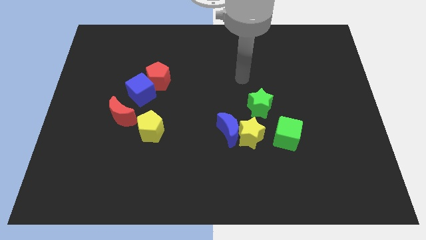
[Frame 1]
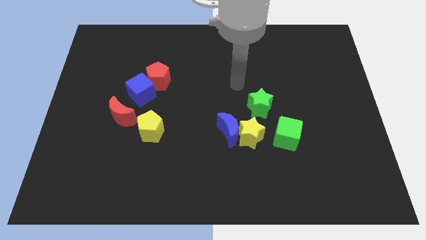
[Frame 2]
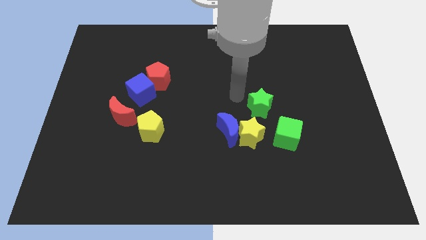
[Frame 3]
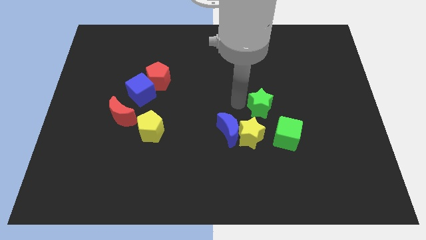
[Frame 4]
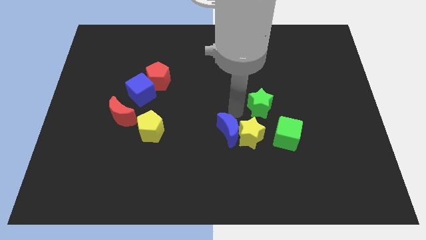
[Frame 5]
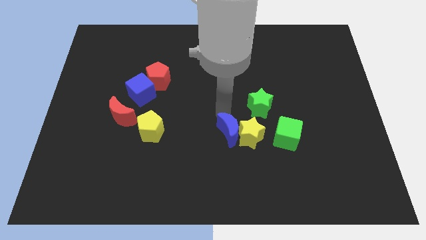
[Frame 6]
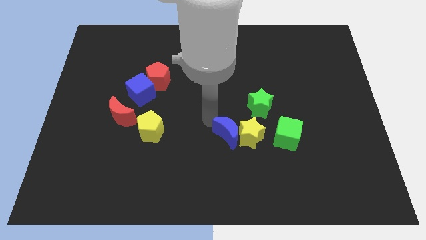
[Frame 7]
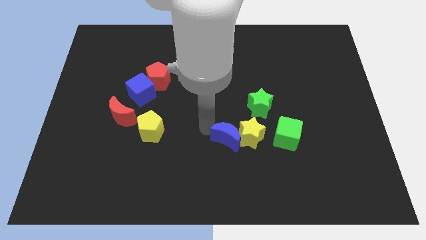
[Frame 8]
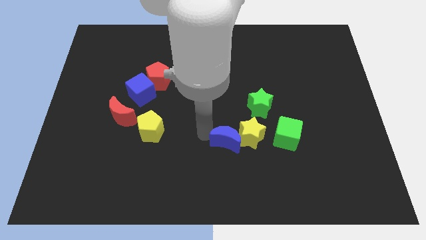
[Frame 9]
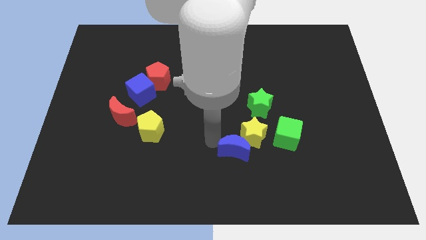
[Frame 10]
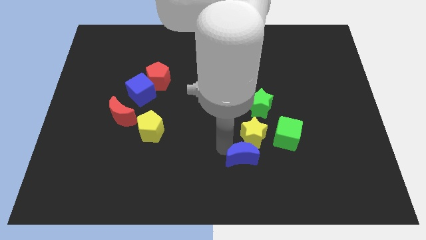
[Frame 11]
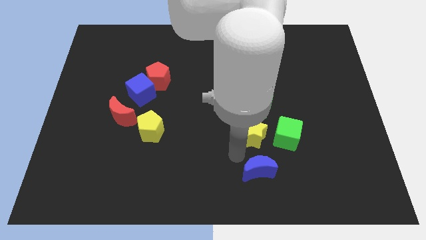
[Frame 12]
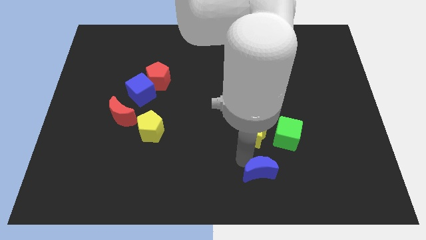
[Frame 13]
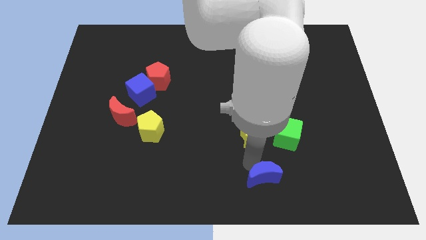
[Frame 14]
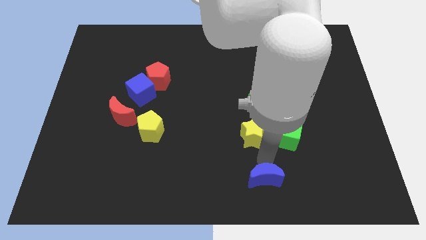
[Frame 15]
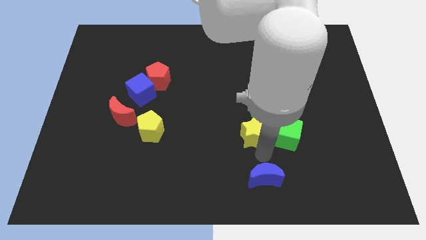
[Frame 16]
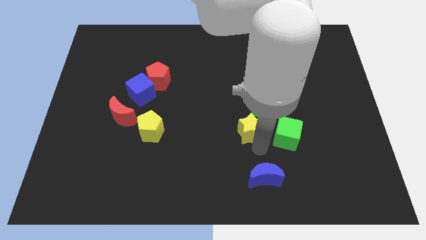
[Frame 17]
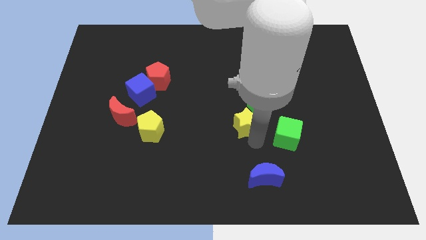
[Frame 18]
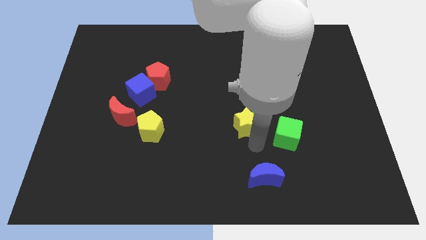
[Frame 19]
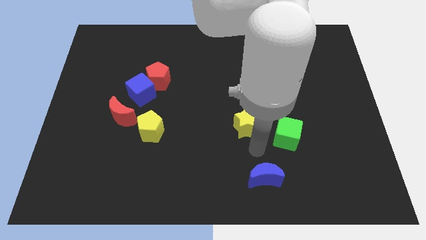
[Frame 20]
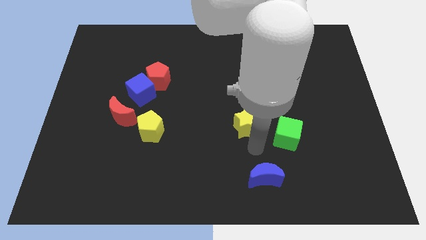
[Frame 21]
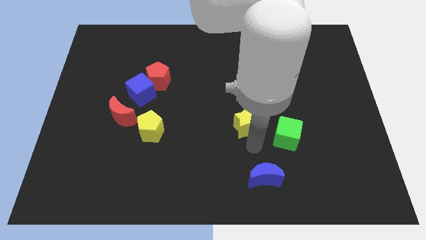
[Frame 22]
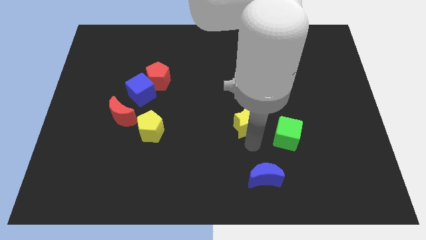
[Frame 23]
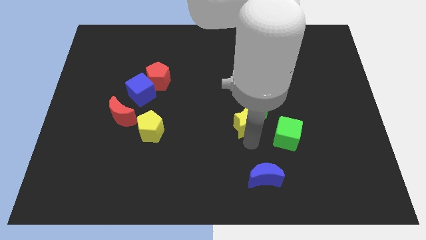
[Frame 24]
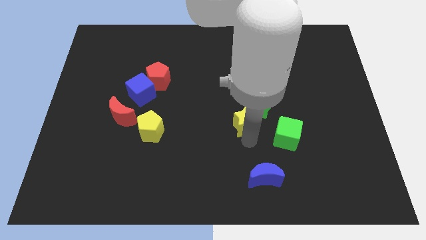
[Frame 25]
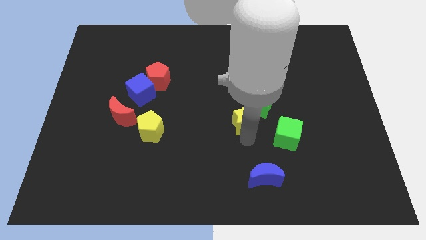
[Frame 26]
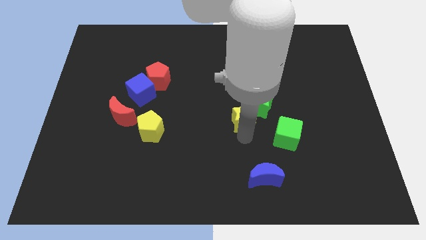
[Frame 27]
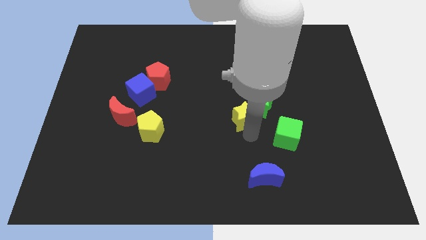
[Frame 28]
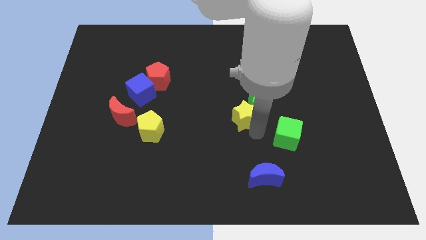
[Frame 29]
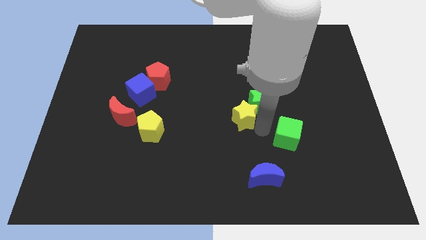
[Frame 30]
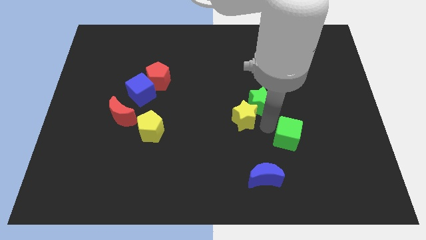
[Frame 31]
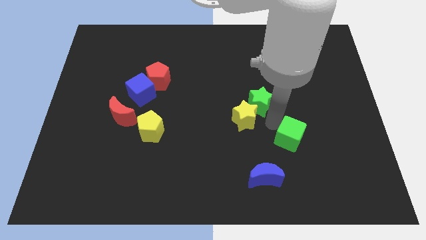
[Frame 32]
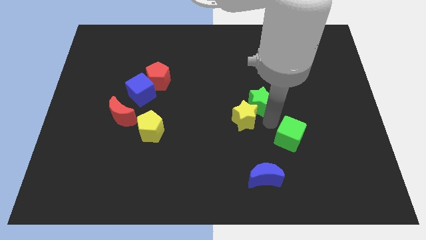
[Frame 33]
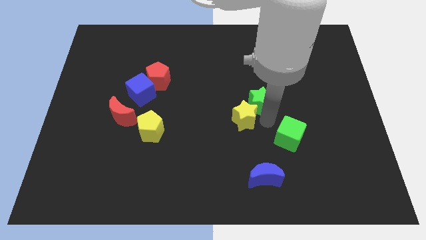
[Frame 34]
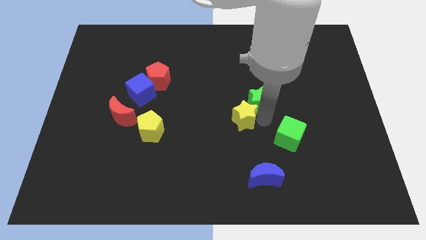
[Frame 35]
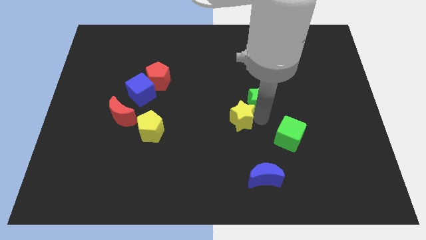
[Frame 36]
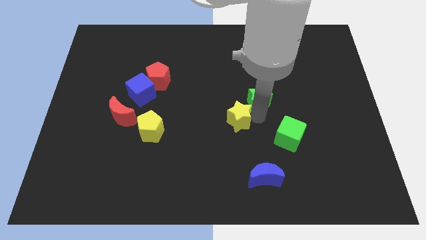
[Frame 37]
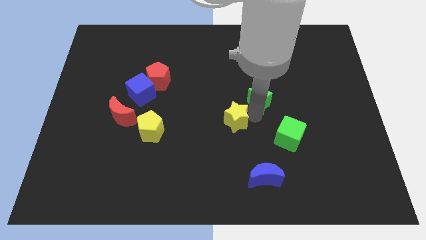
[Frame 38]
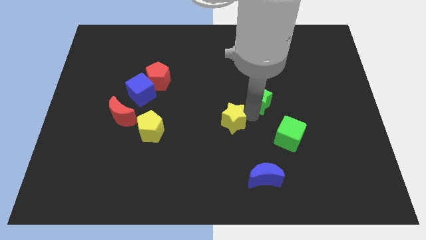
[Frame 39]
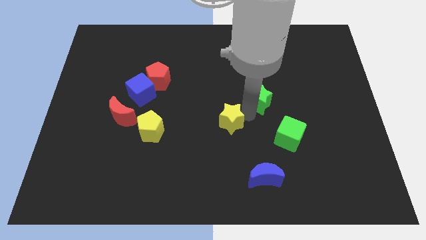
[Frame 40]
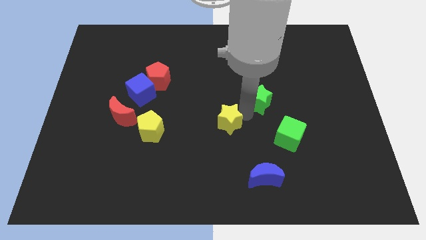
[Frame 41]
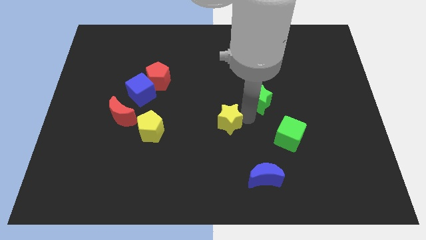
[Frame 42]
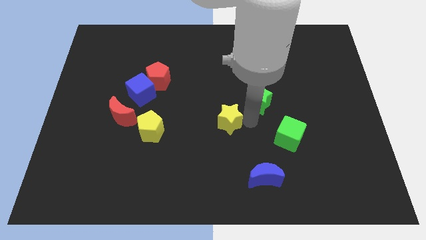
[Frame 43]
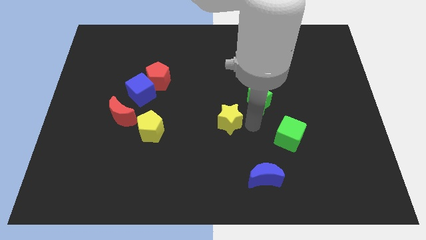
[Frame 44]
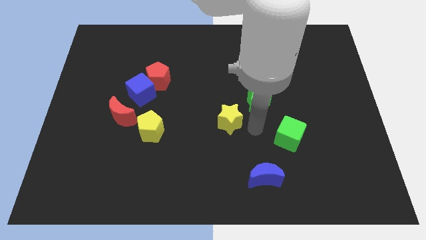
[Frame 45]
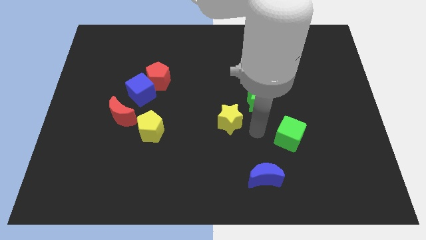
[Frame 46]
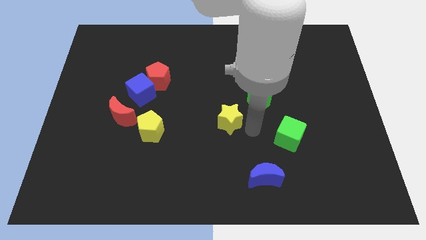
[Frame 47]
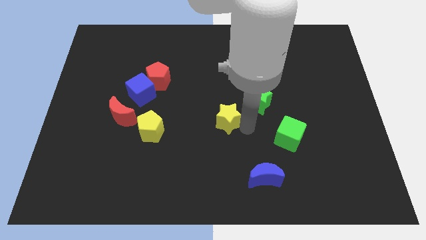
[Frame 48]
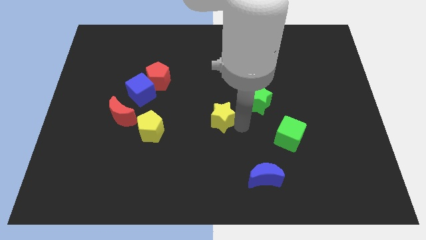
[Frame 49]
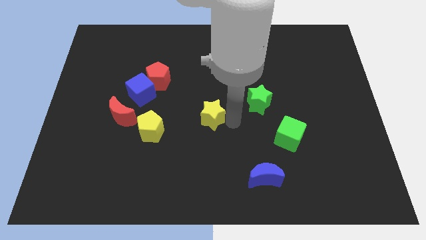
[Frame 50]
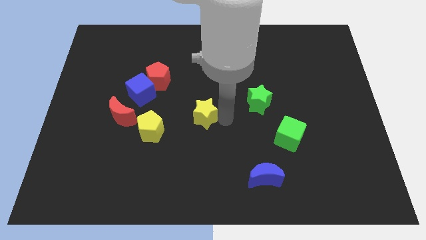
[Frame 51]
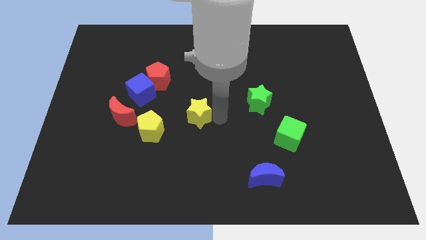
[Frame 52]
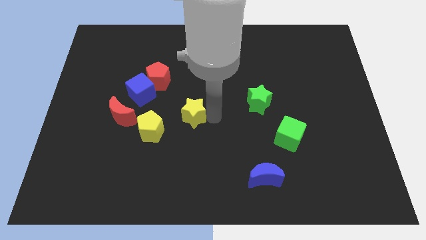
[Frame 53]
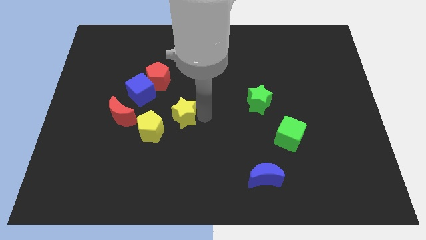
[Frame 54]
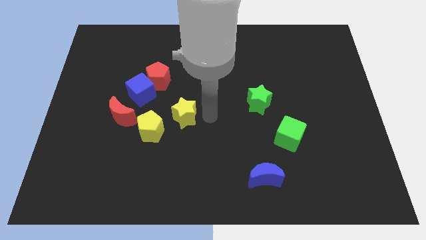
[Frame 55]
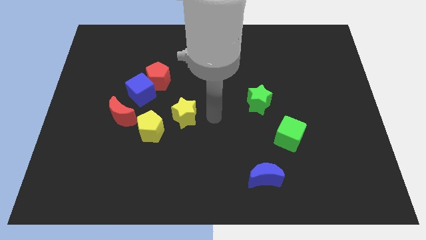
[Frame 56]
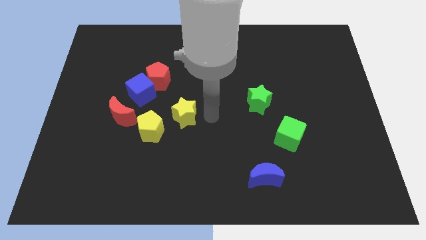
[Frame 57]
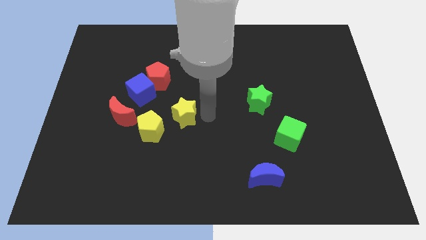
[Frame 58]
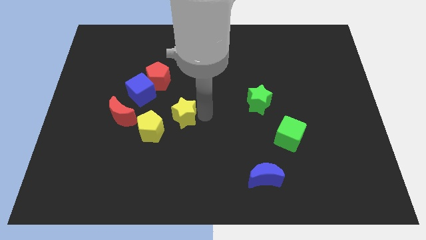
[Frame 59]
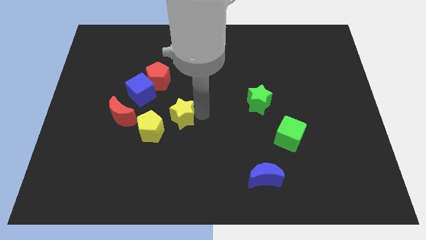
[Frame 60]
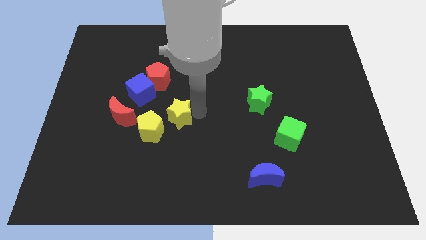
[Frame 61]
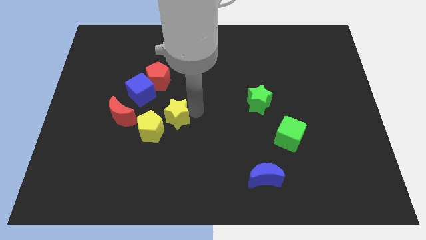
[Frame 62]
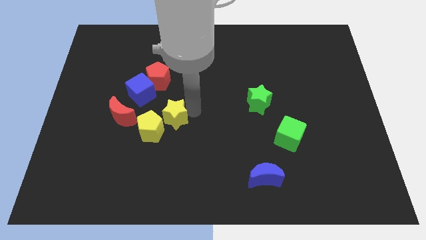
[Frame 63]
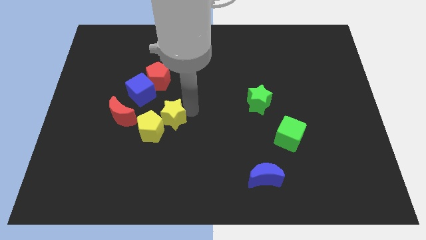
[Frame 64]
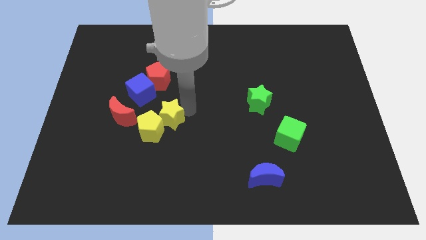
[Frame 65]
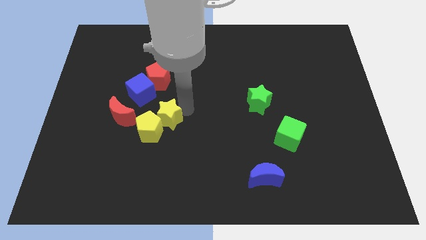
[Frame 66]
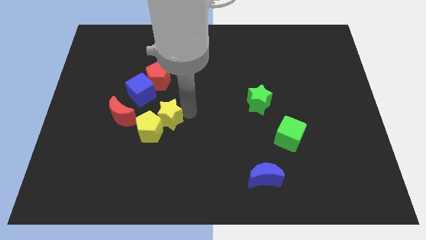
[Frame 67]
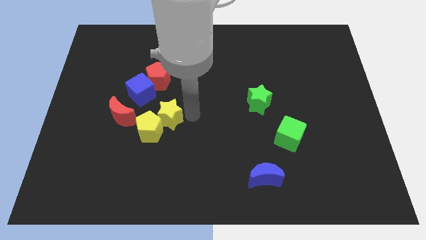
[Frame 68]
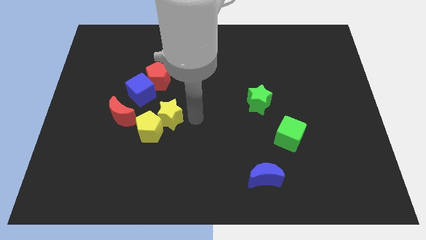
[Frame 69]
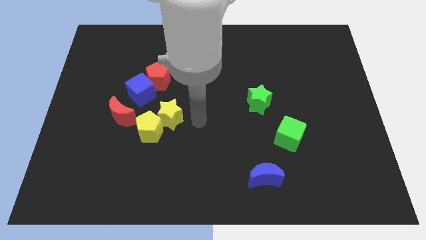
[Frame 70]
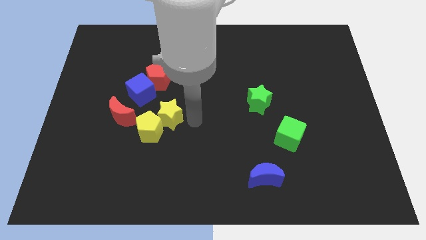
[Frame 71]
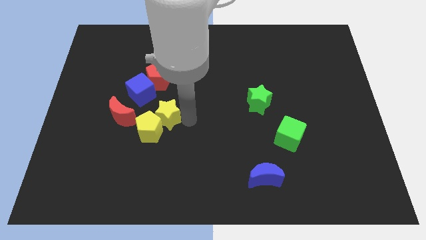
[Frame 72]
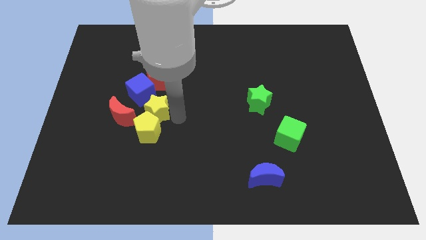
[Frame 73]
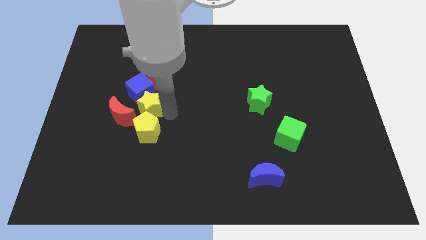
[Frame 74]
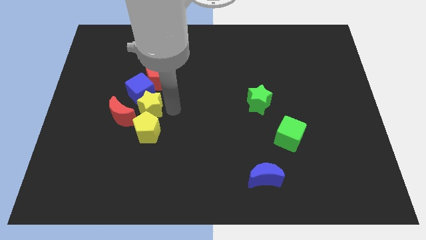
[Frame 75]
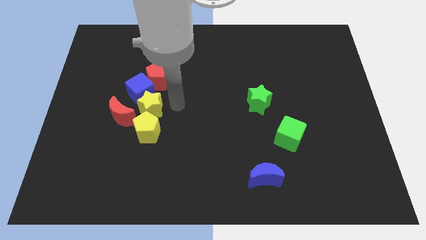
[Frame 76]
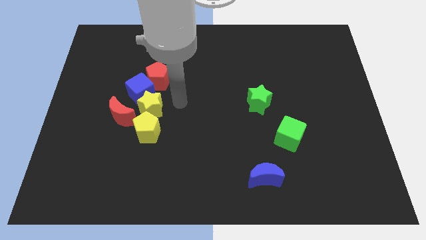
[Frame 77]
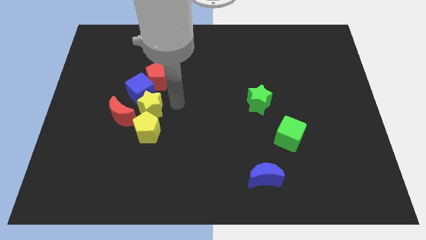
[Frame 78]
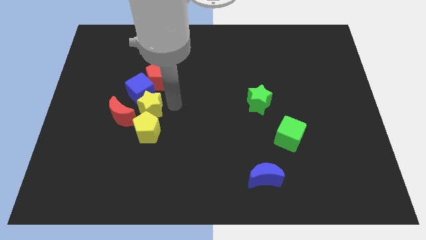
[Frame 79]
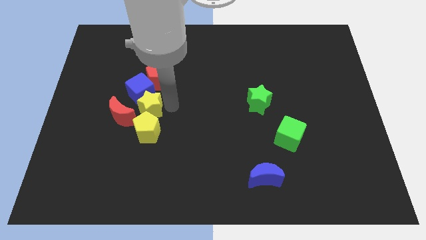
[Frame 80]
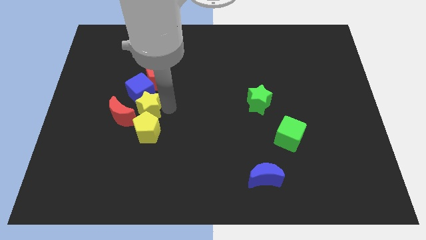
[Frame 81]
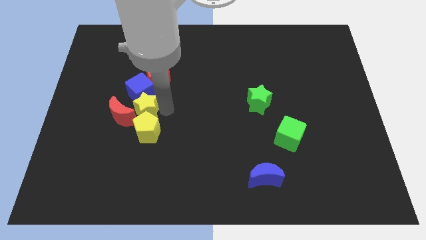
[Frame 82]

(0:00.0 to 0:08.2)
push the yellow star close to the red moon
